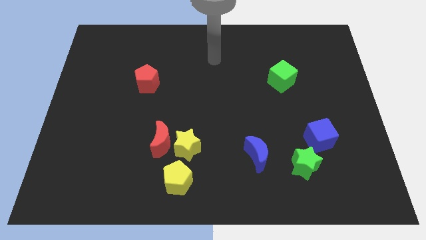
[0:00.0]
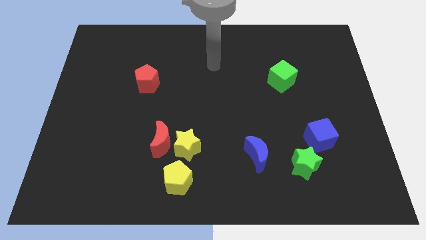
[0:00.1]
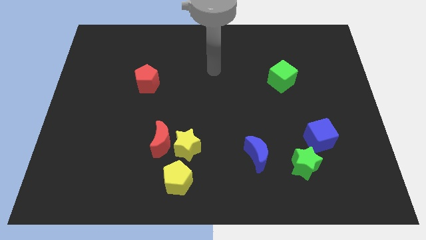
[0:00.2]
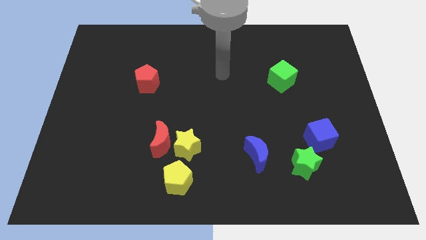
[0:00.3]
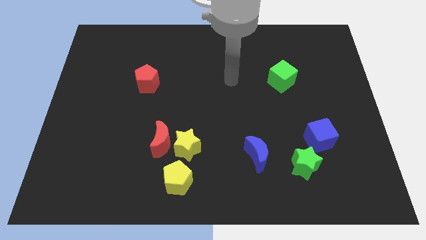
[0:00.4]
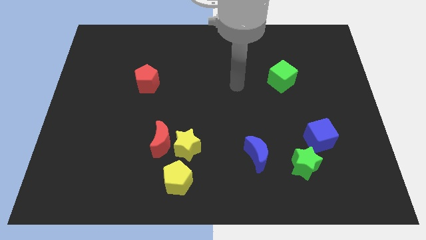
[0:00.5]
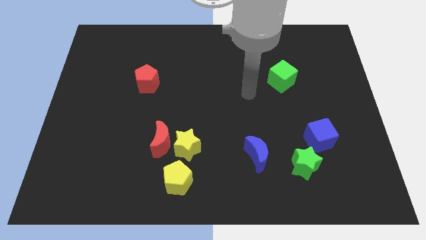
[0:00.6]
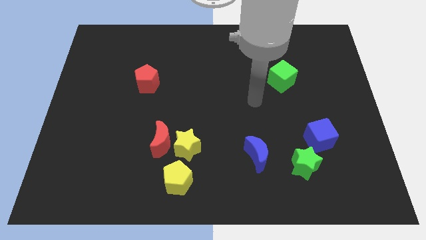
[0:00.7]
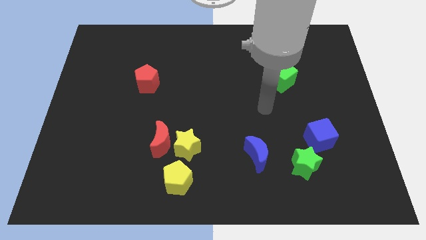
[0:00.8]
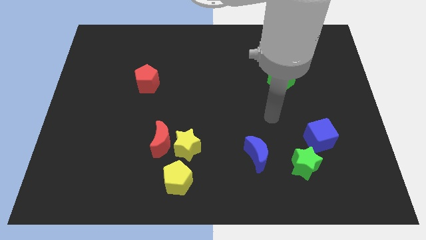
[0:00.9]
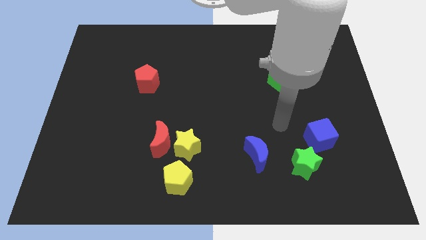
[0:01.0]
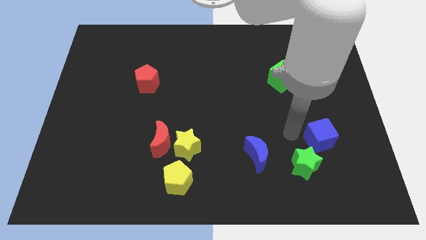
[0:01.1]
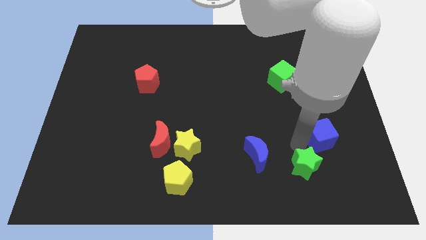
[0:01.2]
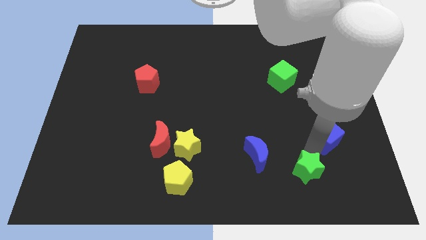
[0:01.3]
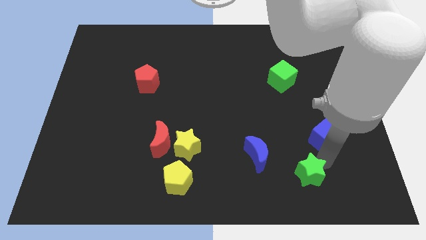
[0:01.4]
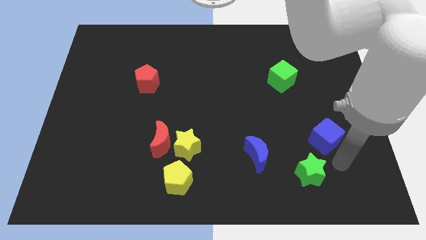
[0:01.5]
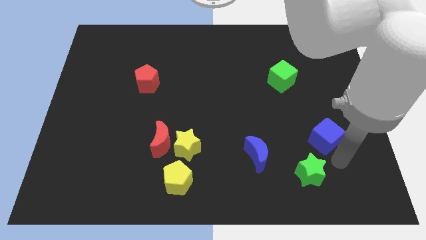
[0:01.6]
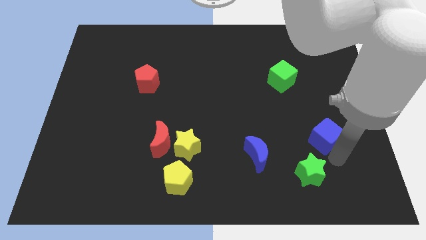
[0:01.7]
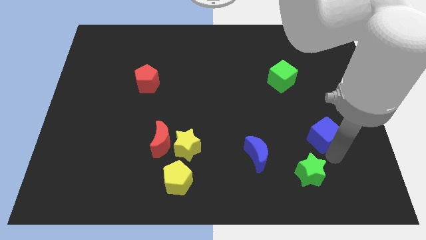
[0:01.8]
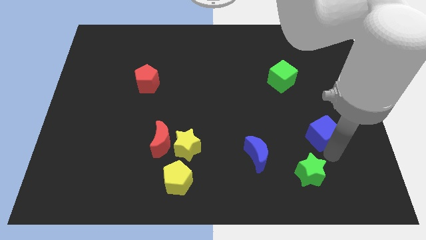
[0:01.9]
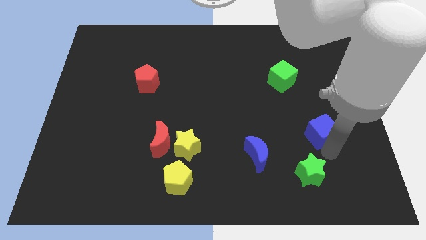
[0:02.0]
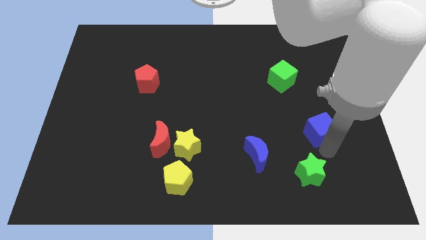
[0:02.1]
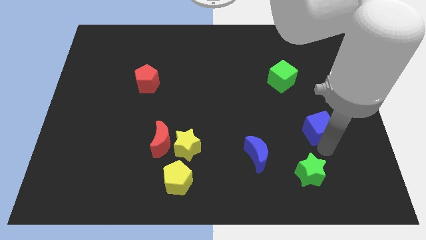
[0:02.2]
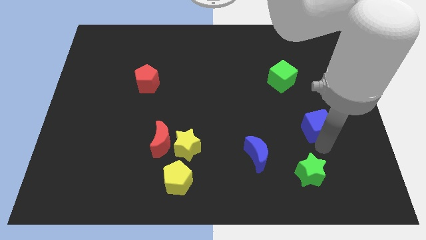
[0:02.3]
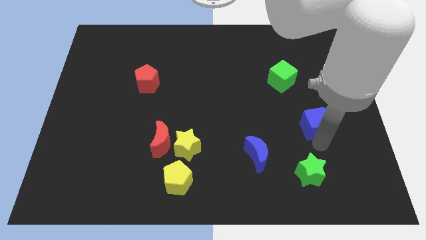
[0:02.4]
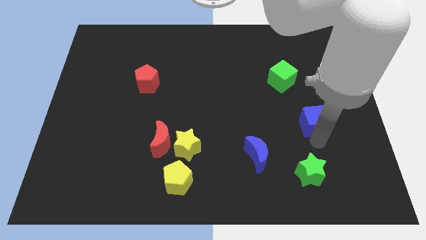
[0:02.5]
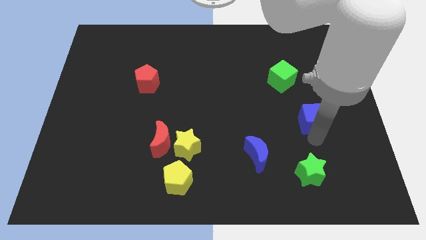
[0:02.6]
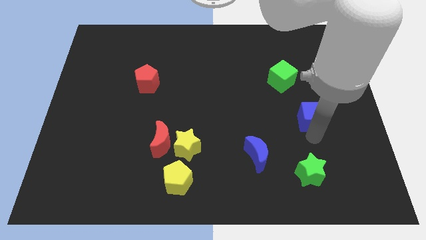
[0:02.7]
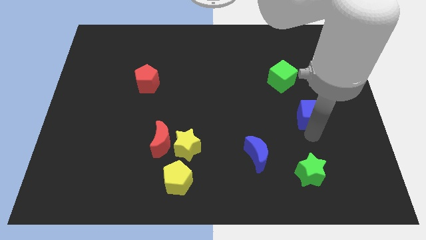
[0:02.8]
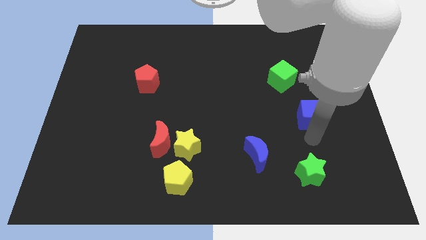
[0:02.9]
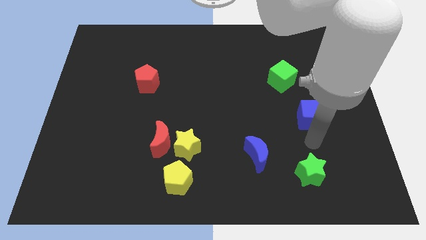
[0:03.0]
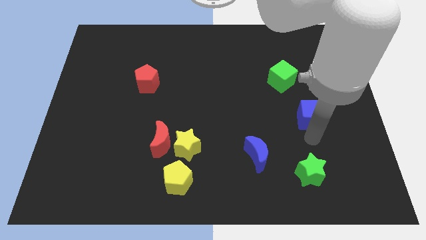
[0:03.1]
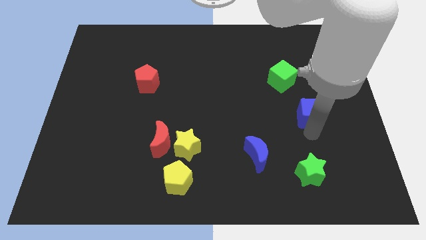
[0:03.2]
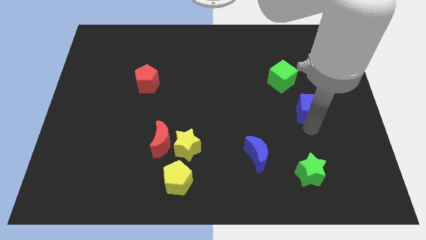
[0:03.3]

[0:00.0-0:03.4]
push the blue cube up a bit

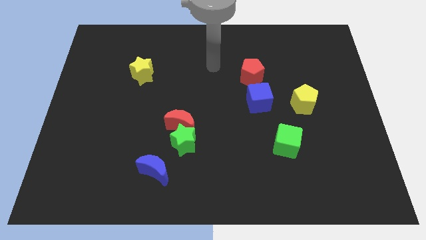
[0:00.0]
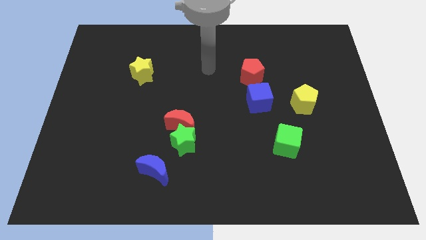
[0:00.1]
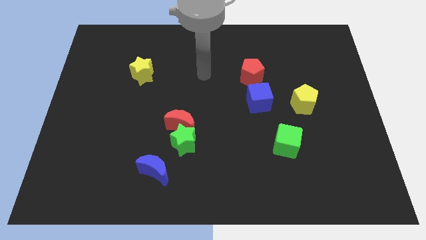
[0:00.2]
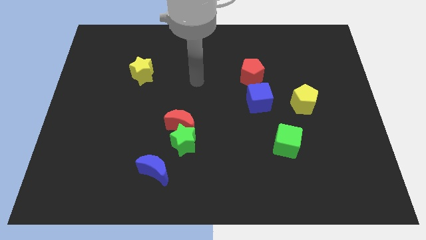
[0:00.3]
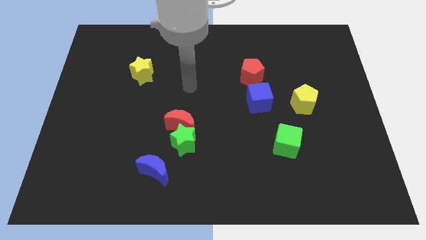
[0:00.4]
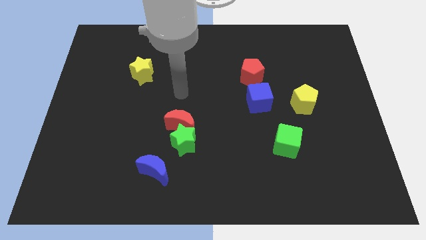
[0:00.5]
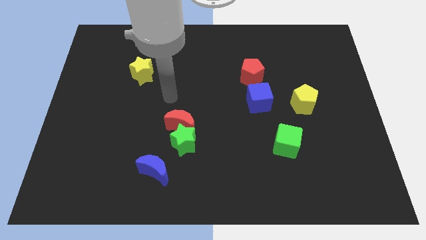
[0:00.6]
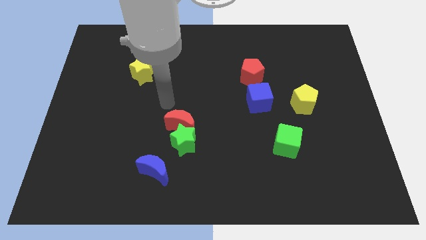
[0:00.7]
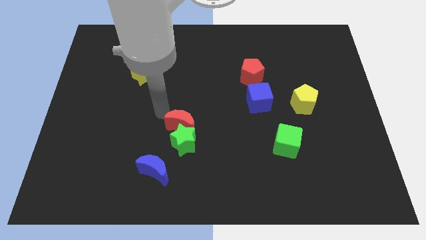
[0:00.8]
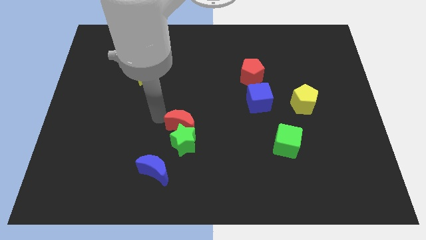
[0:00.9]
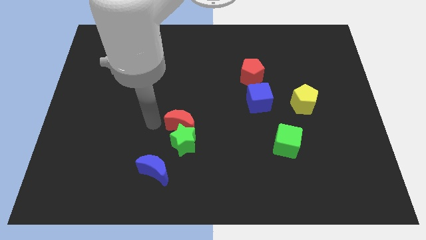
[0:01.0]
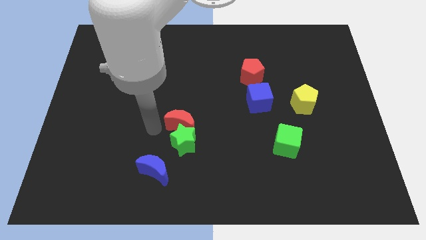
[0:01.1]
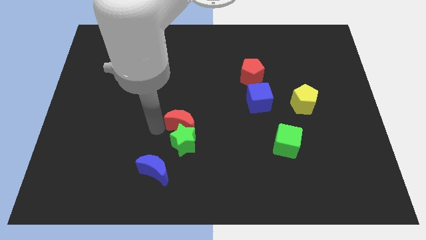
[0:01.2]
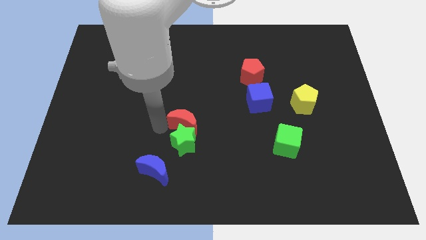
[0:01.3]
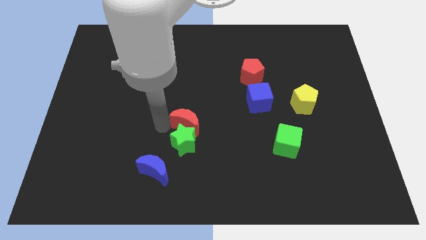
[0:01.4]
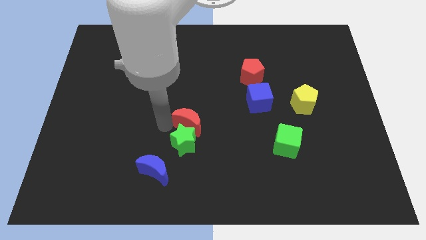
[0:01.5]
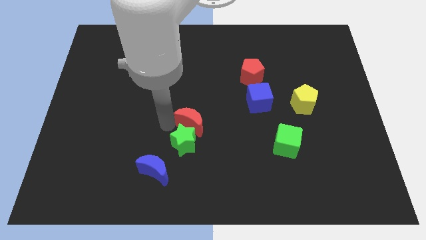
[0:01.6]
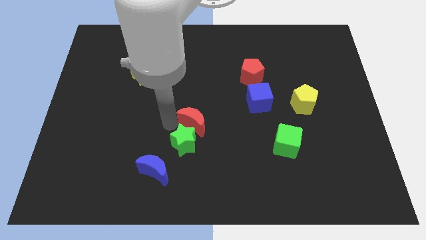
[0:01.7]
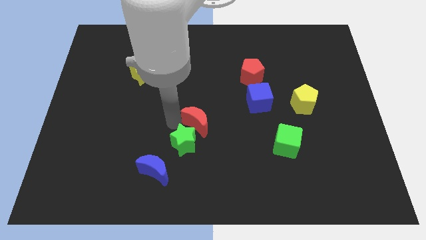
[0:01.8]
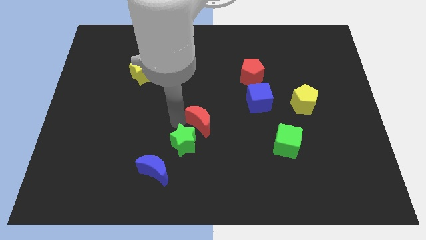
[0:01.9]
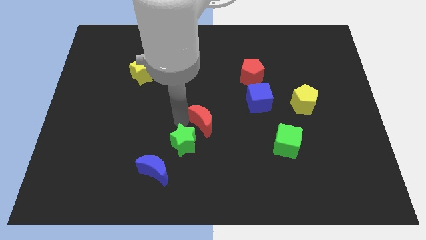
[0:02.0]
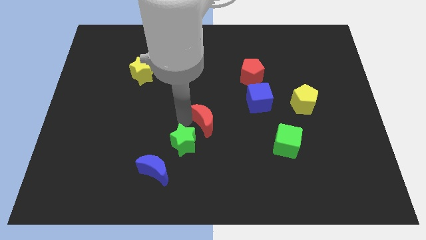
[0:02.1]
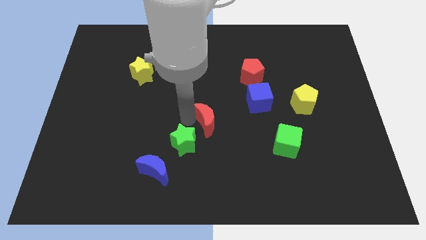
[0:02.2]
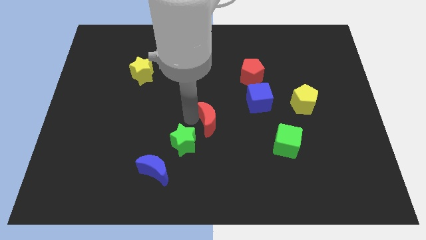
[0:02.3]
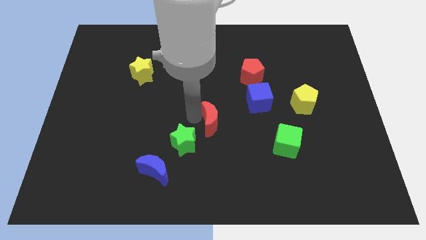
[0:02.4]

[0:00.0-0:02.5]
move the red moon a little bit to the right

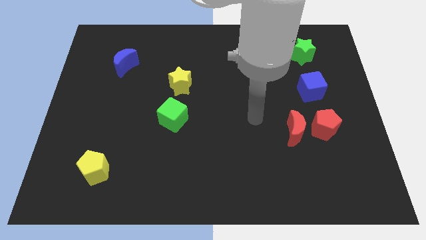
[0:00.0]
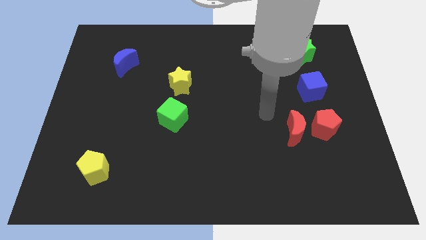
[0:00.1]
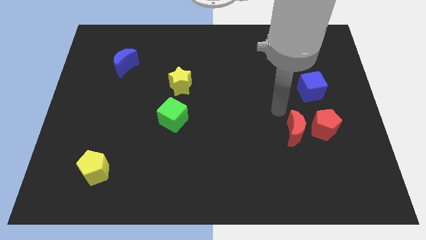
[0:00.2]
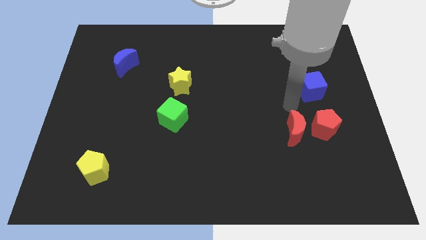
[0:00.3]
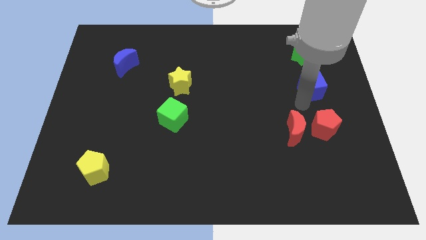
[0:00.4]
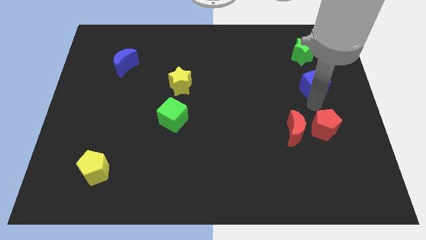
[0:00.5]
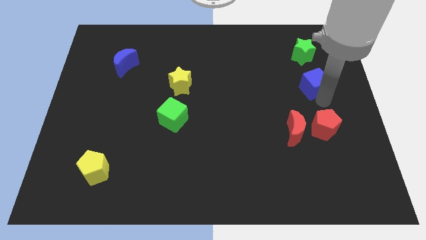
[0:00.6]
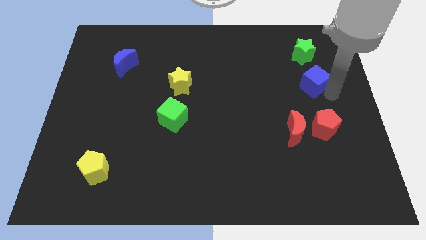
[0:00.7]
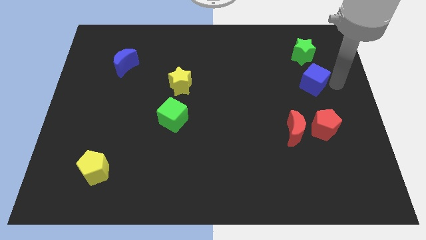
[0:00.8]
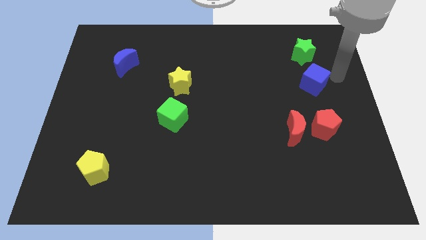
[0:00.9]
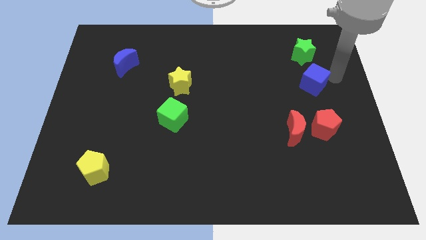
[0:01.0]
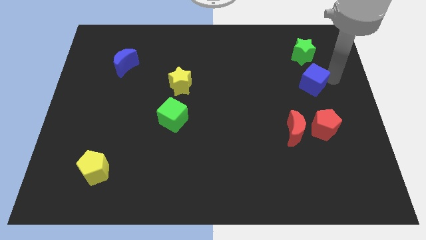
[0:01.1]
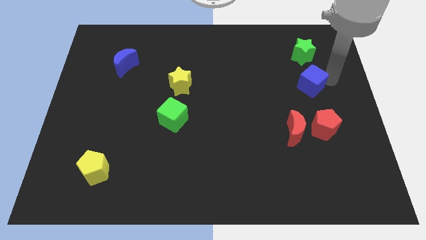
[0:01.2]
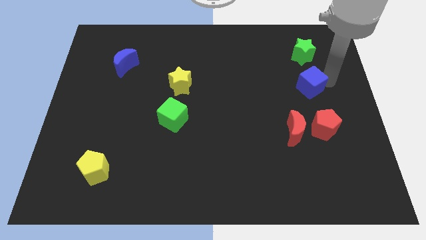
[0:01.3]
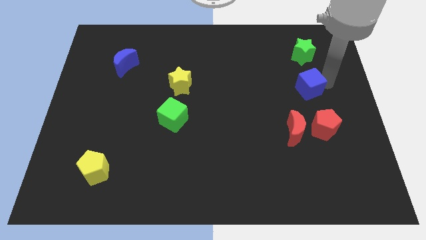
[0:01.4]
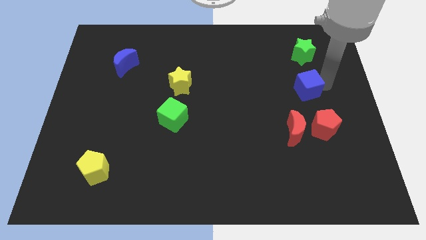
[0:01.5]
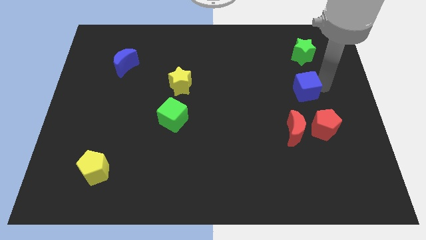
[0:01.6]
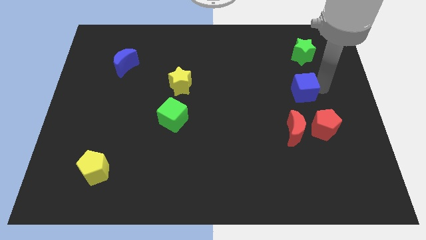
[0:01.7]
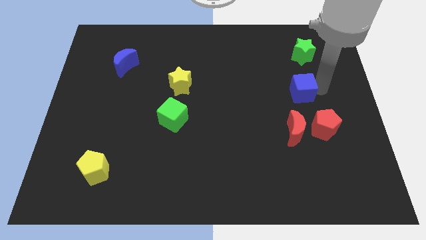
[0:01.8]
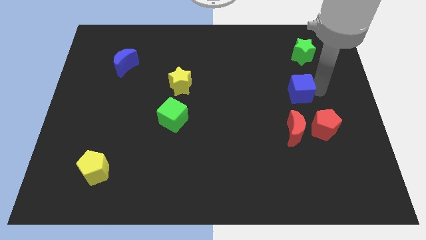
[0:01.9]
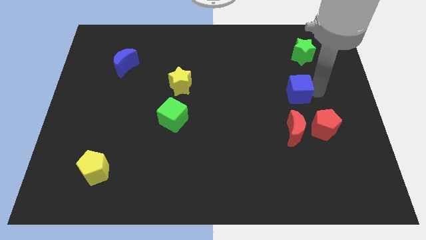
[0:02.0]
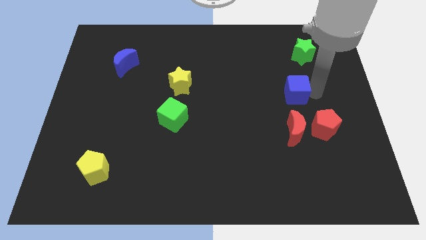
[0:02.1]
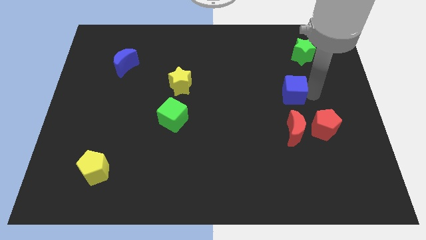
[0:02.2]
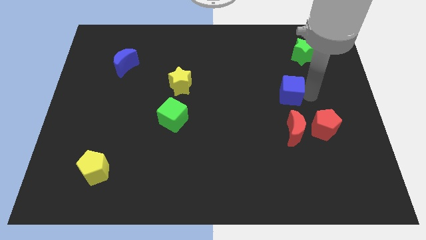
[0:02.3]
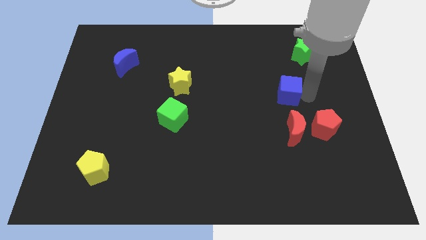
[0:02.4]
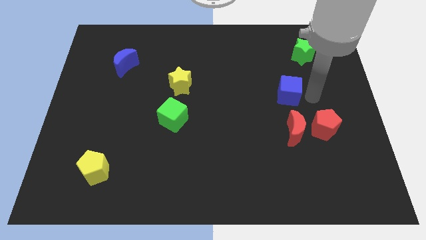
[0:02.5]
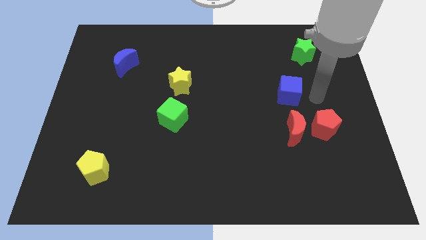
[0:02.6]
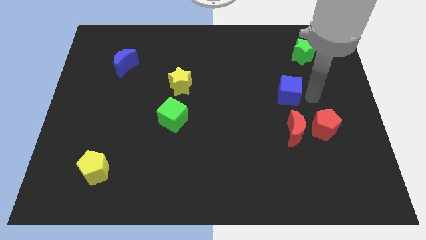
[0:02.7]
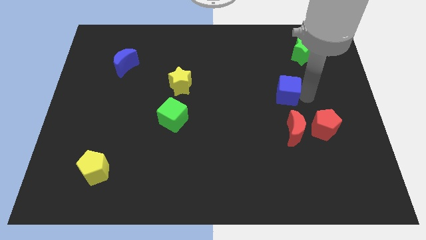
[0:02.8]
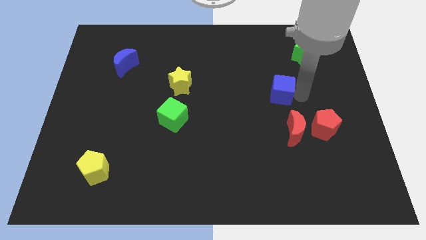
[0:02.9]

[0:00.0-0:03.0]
slide the blue cube a bit left
